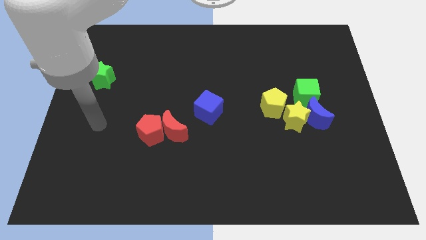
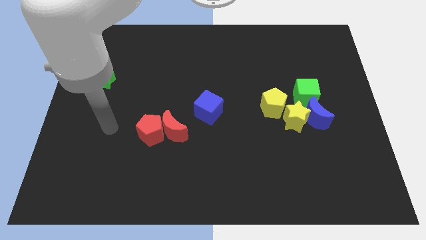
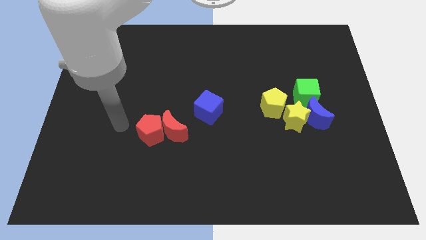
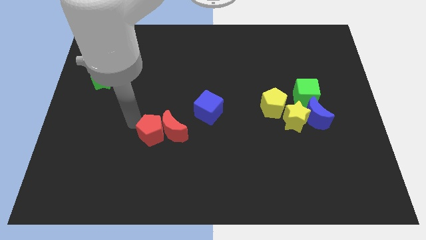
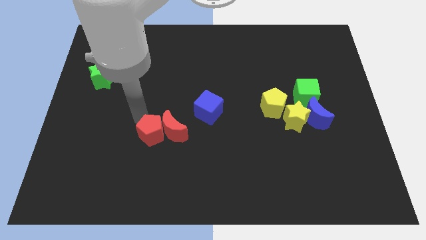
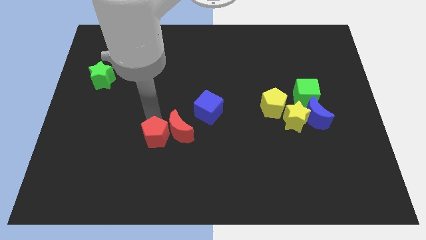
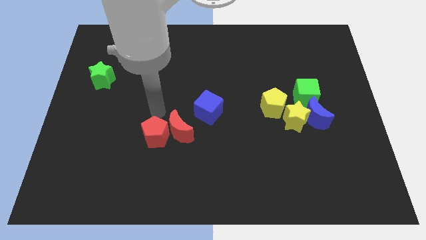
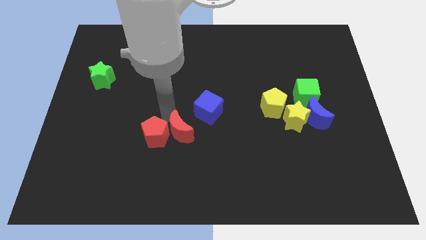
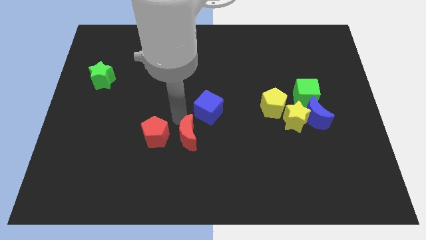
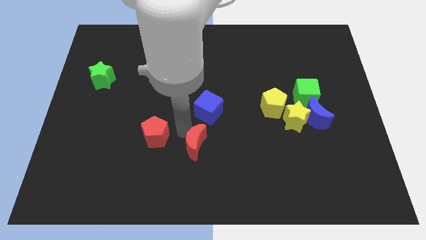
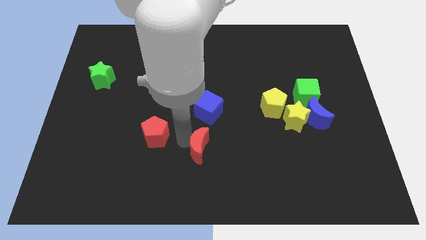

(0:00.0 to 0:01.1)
pull the red pentagon apart from the red moon

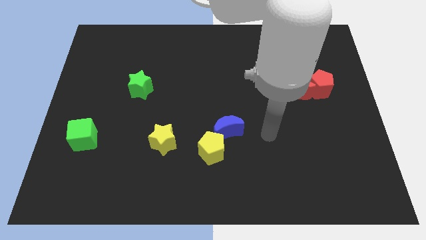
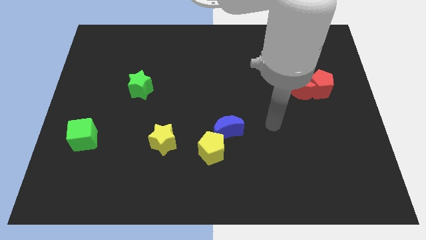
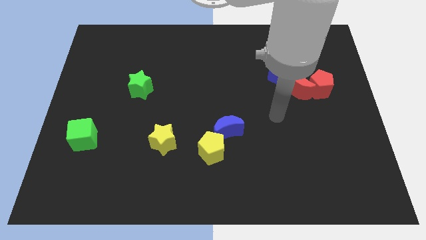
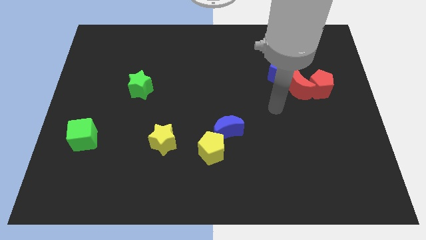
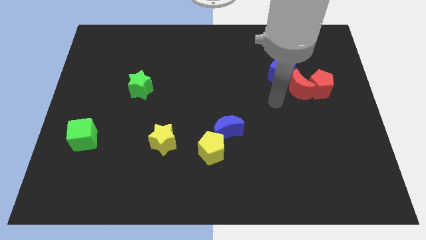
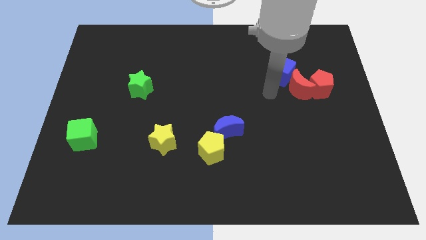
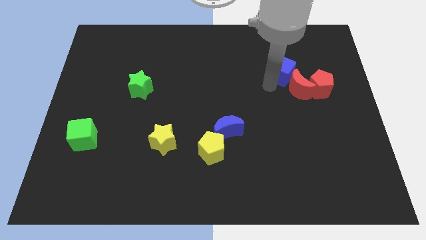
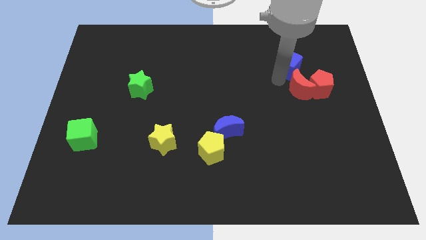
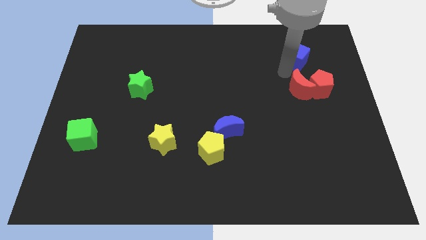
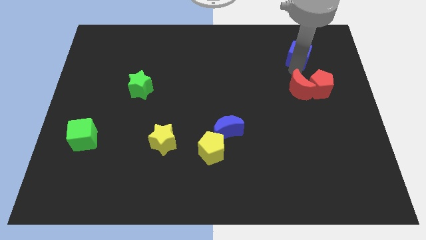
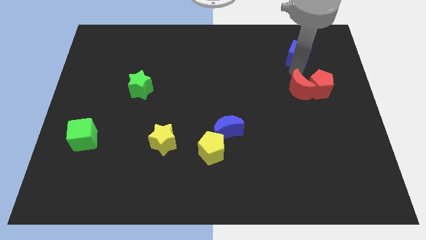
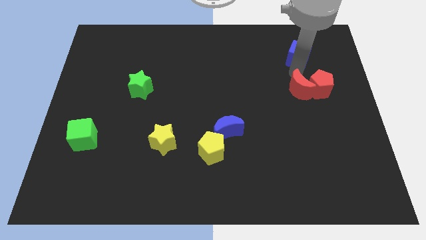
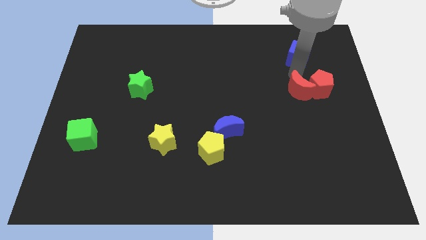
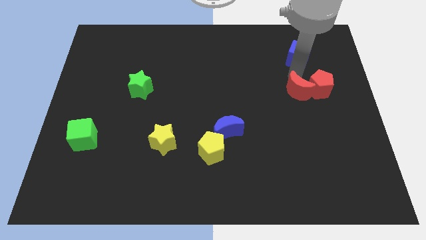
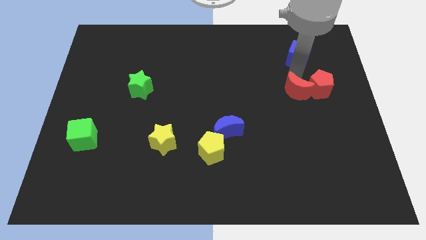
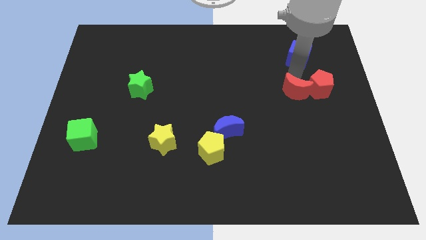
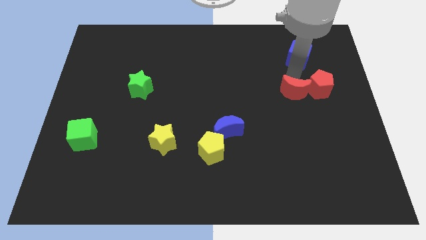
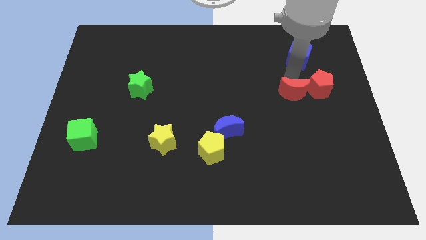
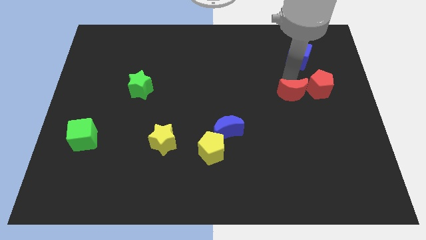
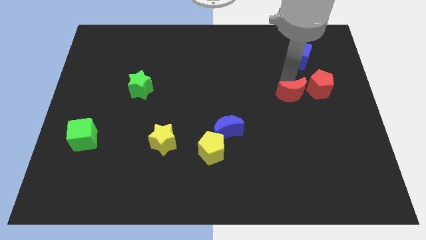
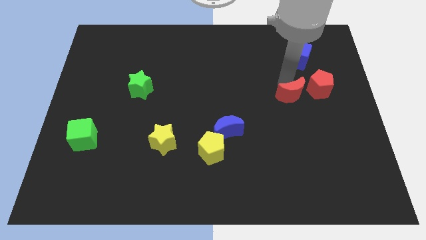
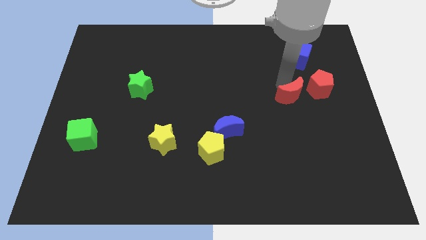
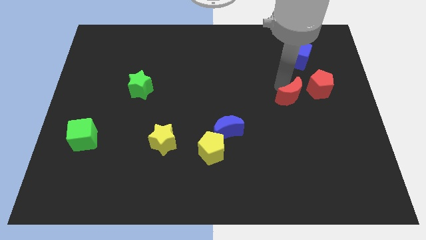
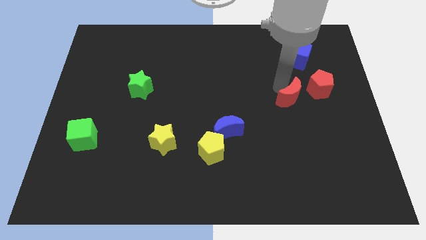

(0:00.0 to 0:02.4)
move the red moon away from the red pentagon and blue cube

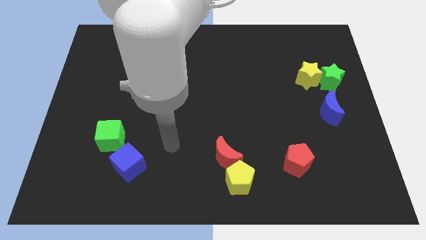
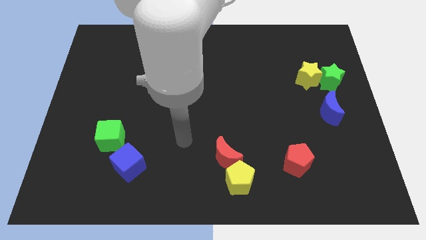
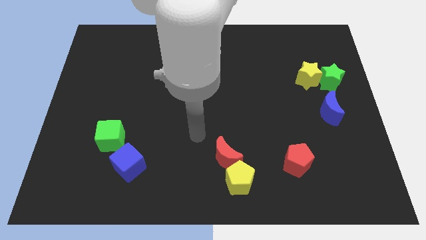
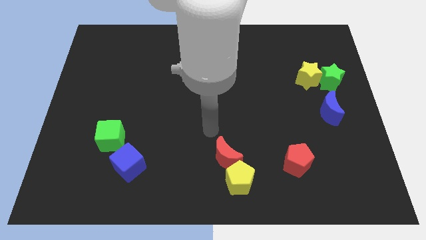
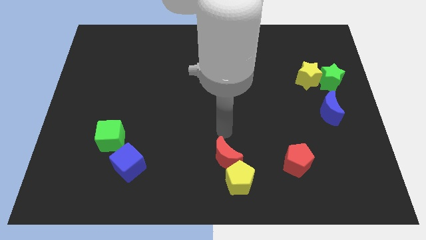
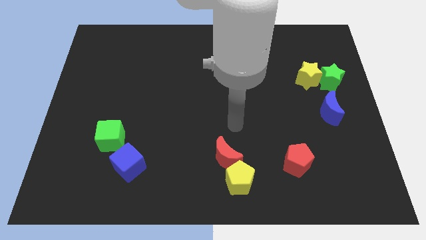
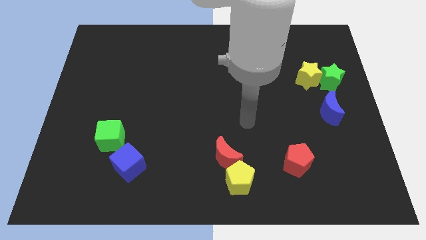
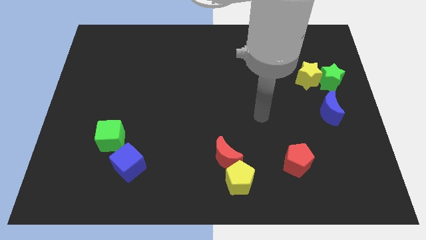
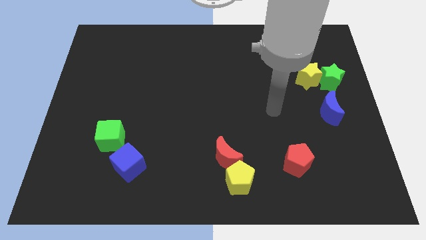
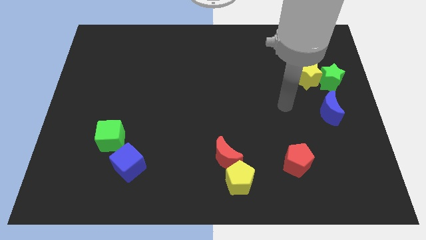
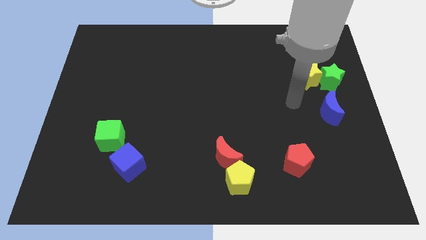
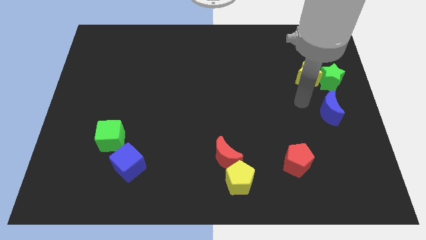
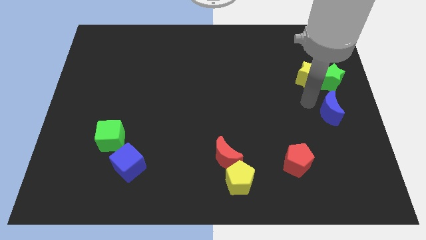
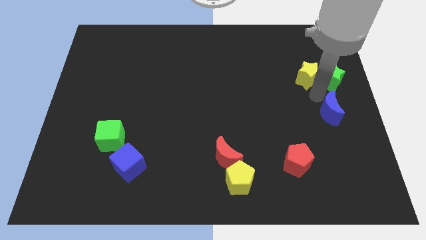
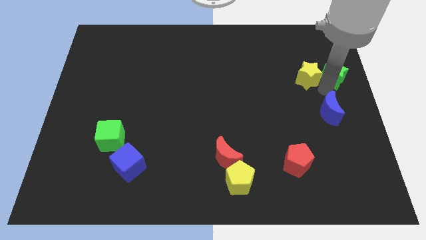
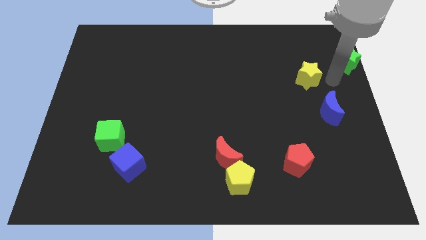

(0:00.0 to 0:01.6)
separate the yellow star from the green star

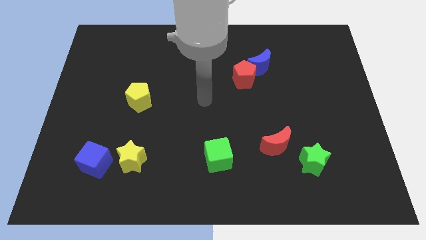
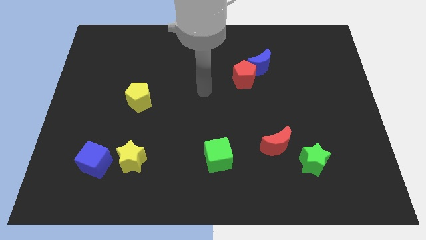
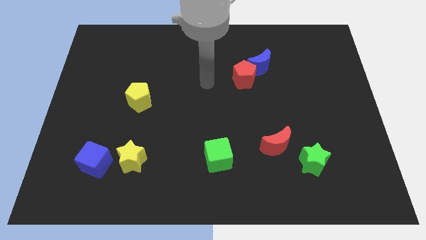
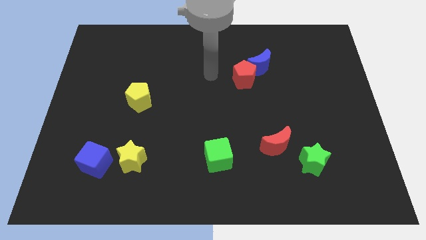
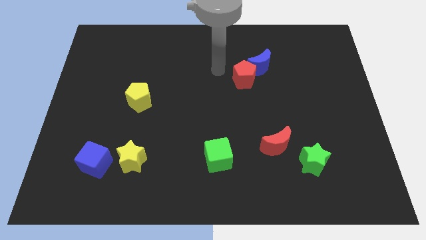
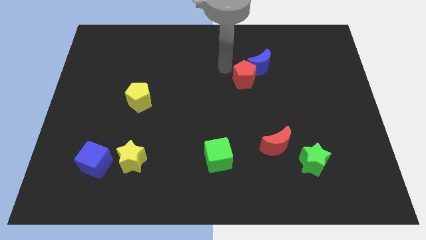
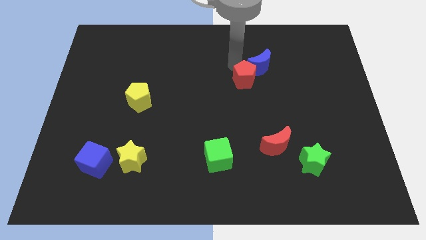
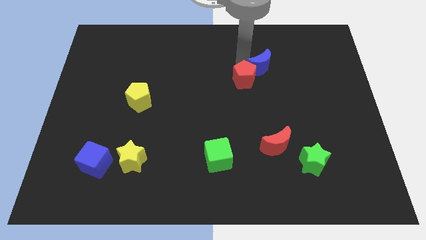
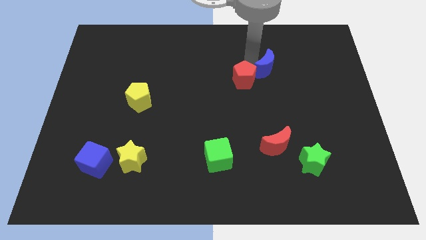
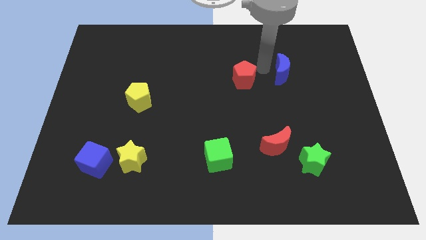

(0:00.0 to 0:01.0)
move the red pentagon away from the blue moon

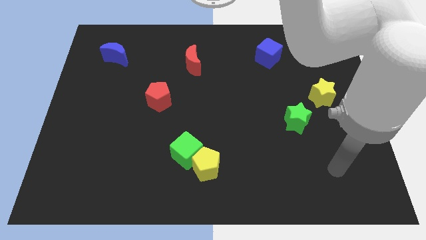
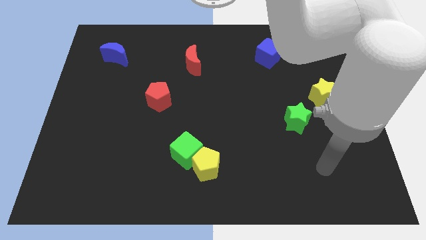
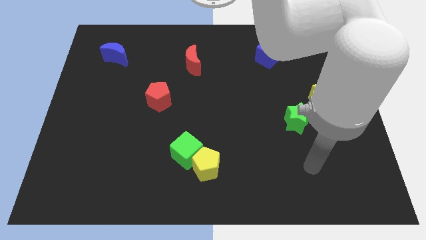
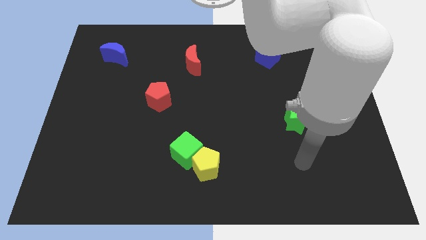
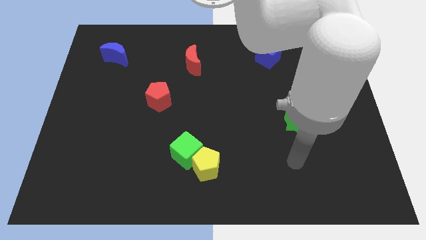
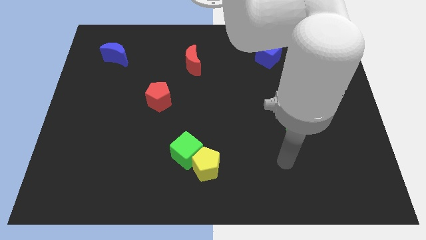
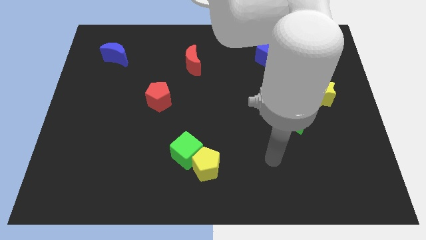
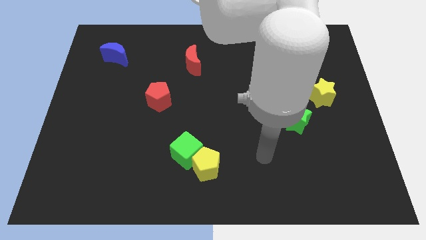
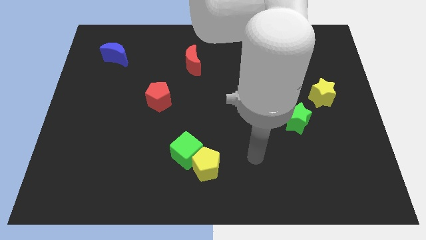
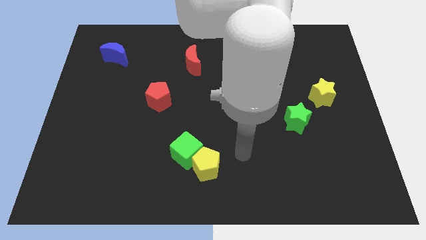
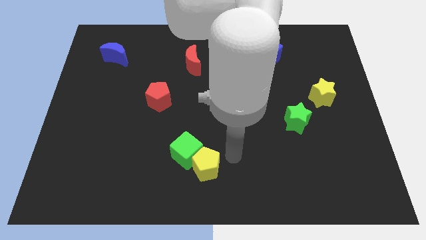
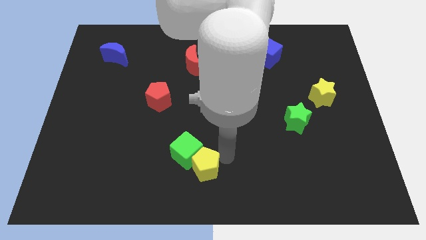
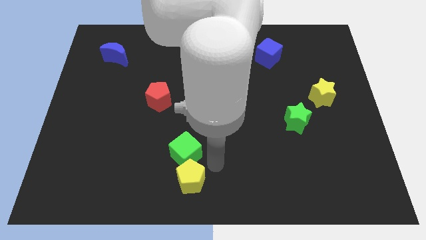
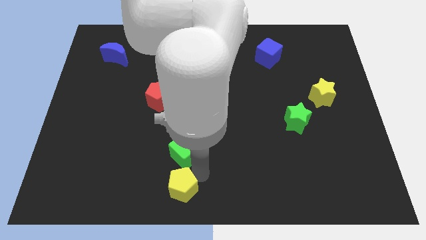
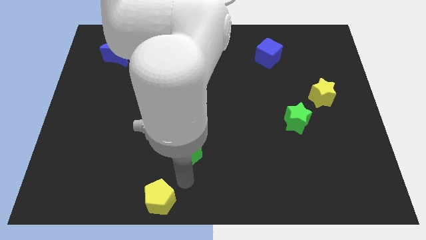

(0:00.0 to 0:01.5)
move the green cube away from the yellow pentagon

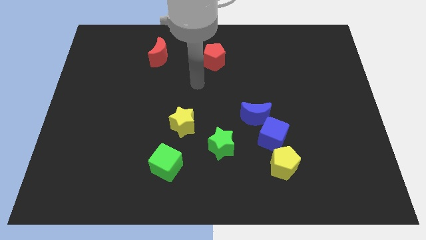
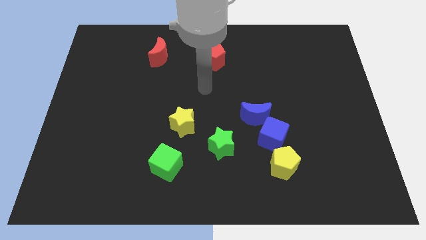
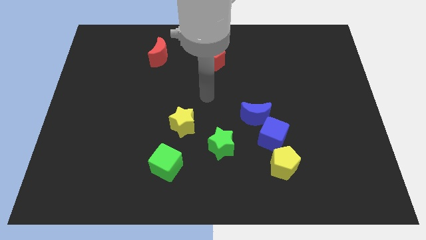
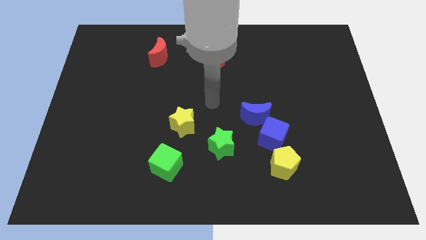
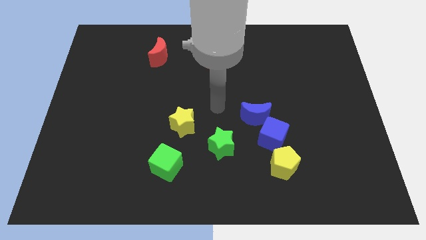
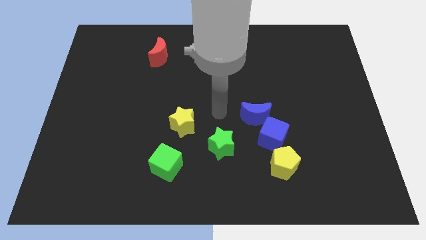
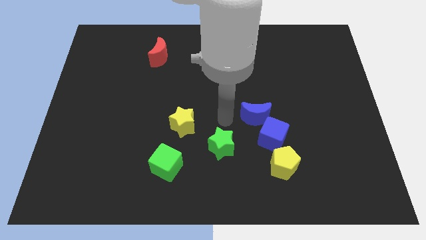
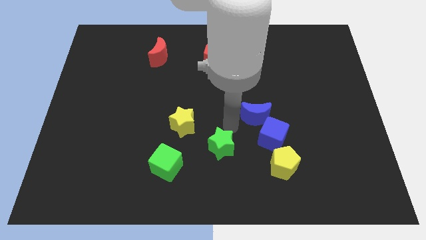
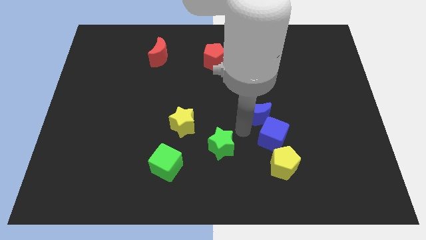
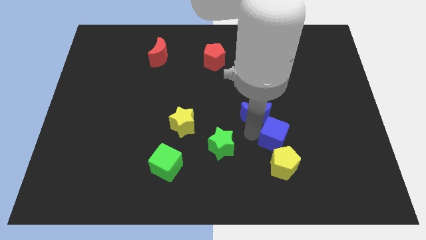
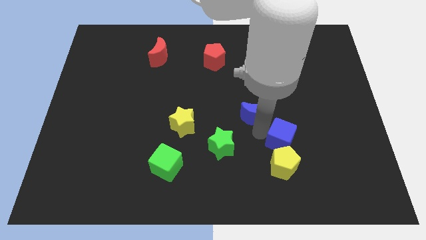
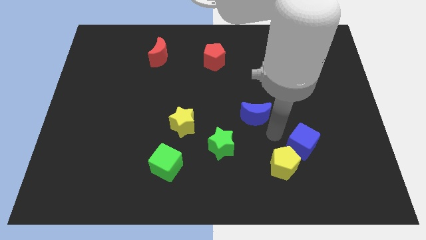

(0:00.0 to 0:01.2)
move the blue moon away from the blue cube

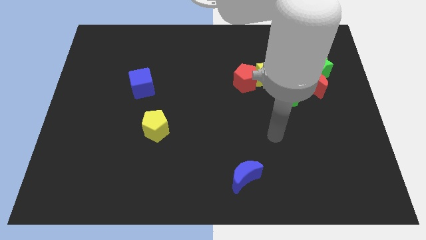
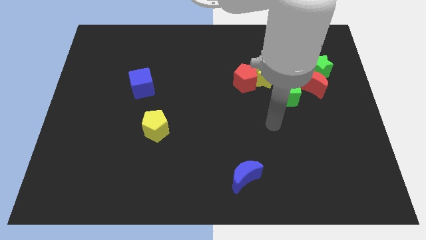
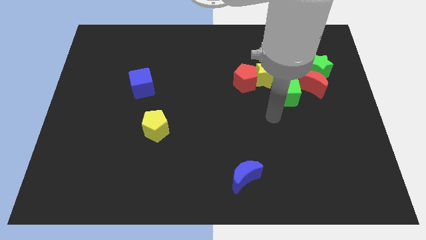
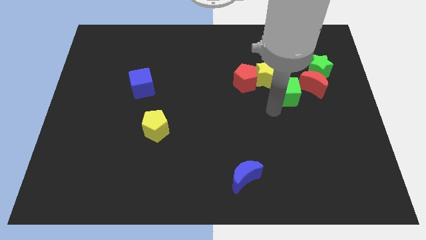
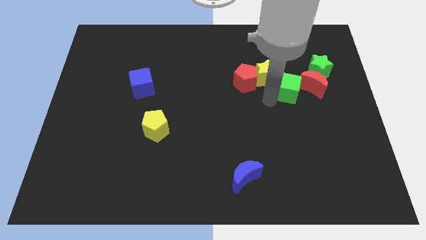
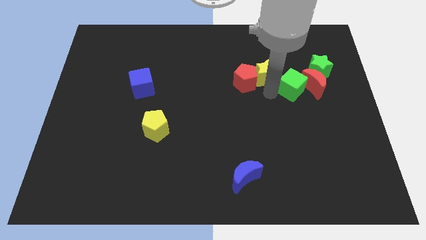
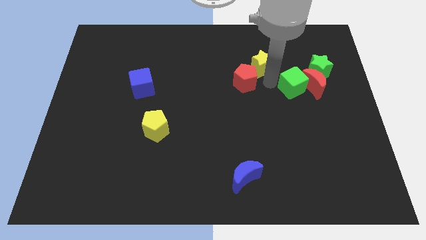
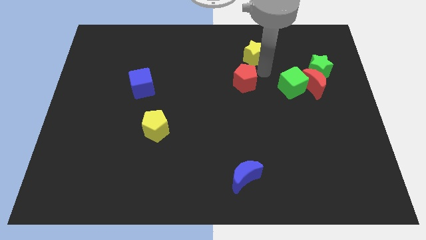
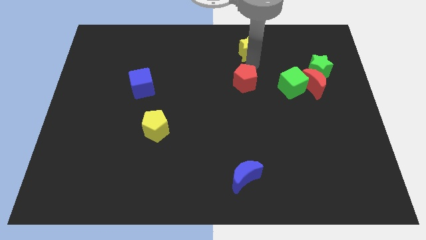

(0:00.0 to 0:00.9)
separate the red pentagon from the yellow star
